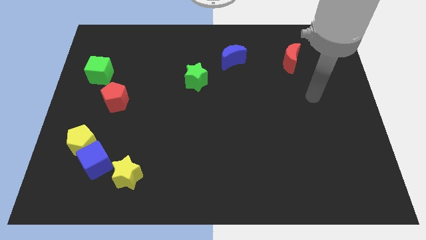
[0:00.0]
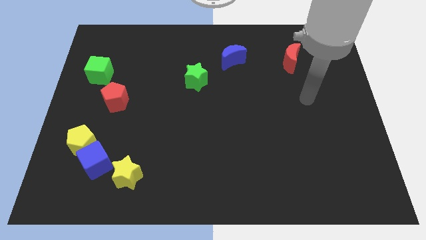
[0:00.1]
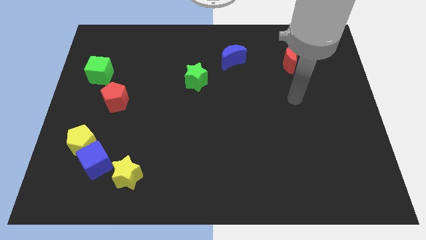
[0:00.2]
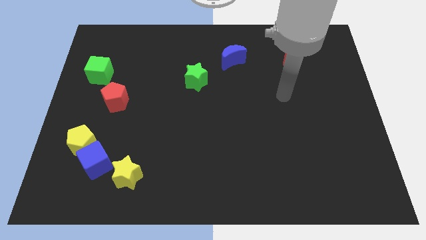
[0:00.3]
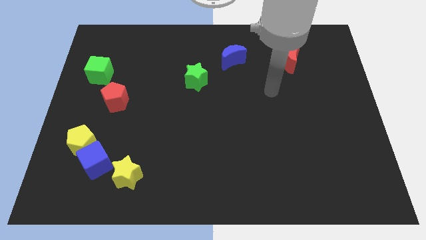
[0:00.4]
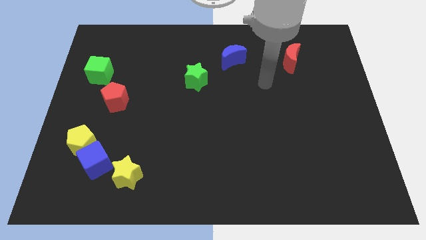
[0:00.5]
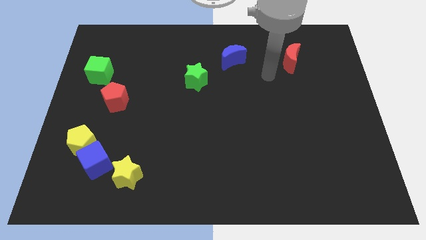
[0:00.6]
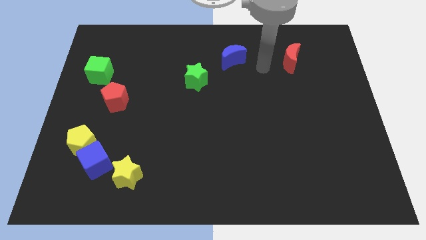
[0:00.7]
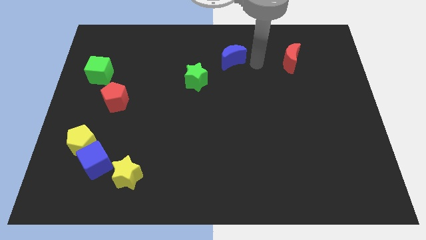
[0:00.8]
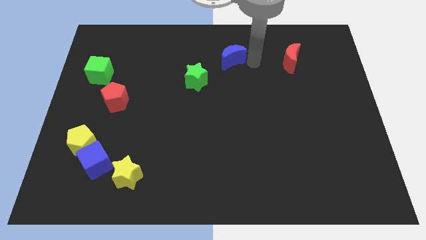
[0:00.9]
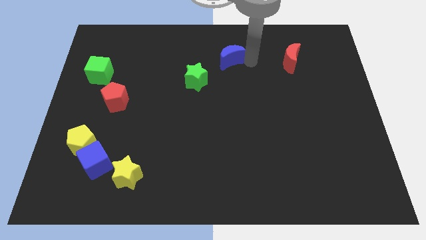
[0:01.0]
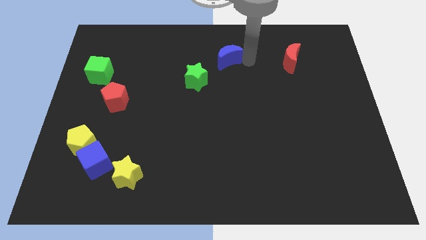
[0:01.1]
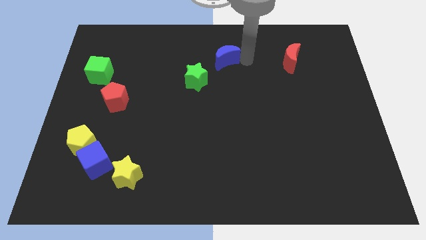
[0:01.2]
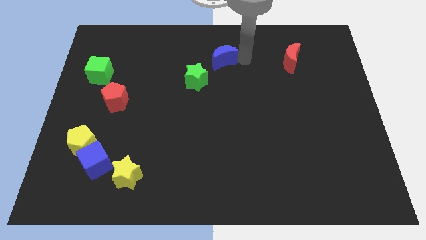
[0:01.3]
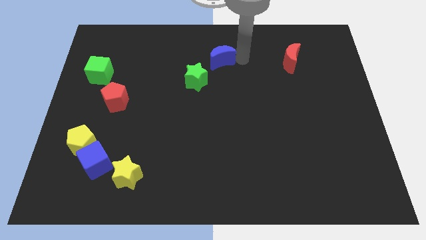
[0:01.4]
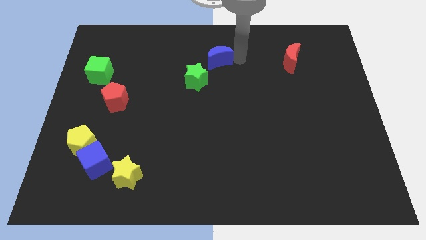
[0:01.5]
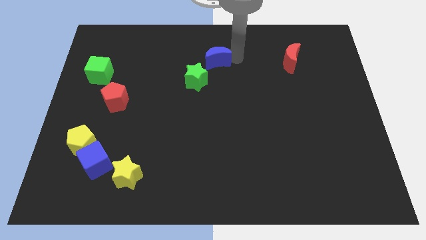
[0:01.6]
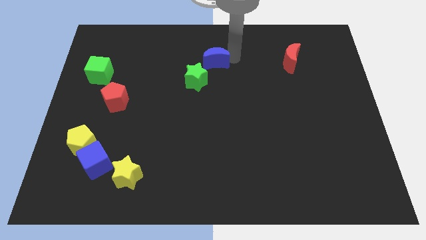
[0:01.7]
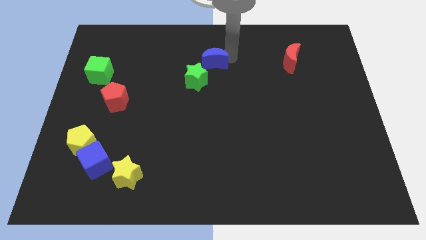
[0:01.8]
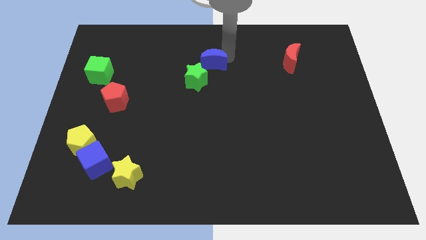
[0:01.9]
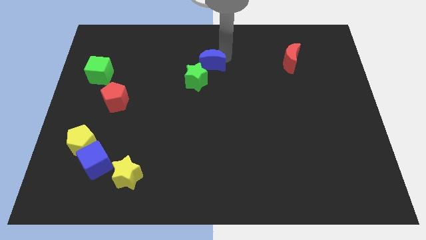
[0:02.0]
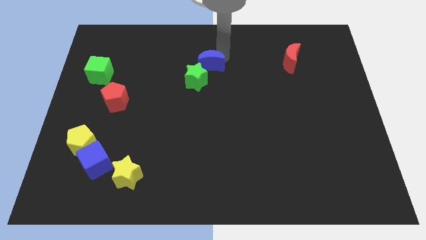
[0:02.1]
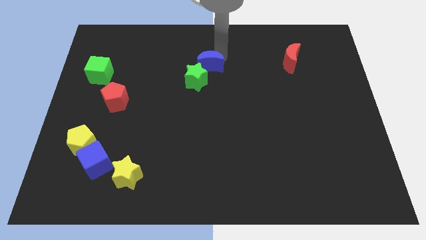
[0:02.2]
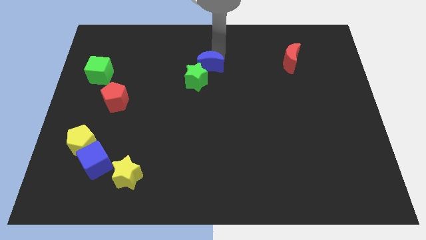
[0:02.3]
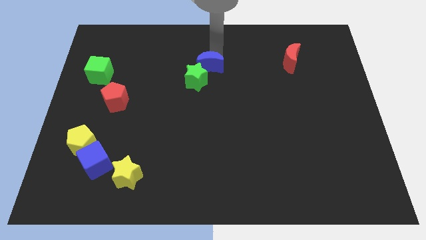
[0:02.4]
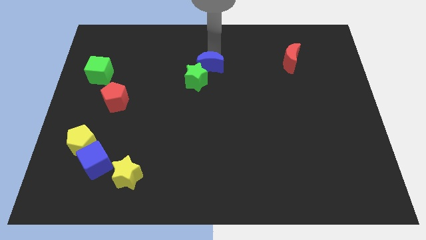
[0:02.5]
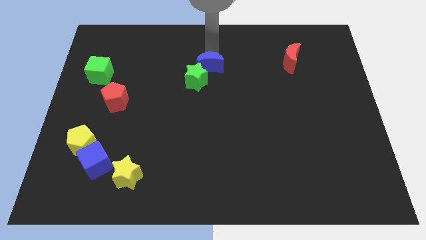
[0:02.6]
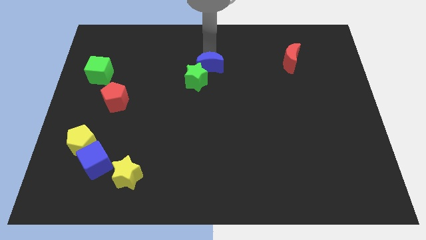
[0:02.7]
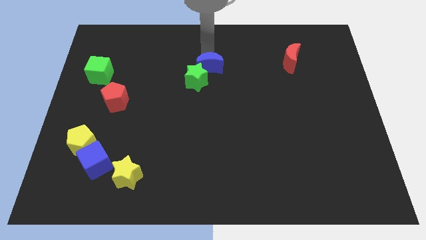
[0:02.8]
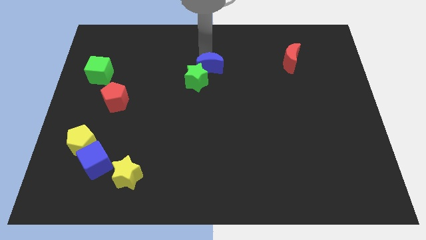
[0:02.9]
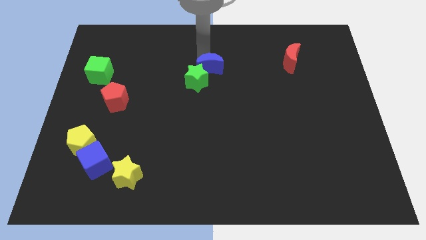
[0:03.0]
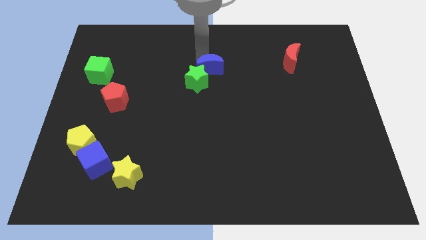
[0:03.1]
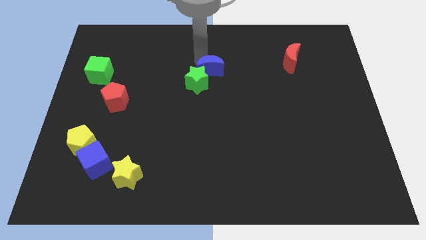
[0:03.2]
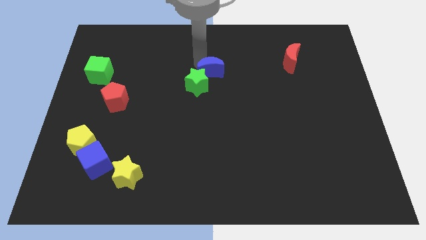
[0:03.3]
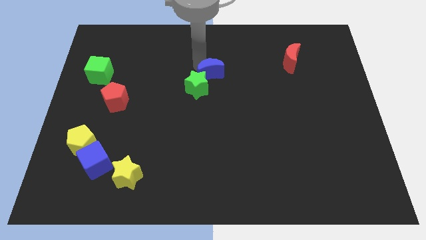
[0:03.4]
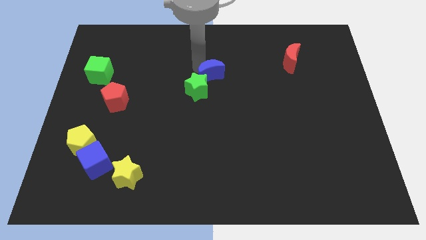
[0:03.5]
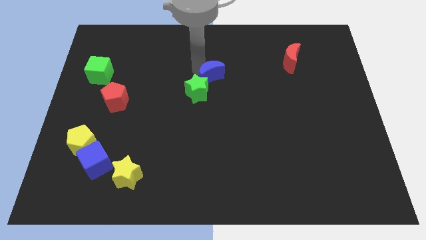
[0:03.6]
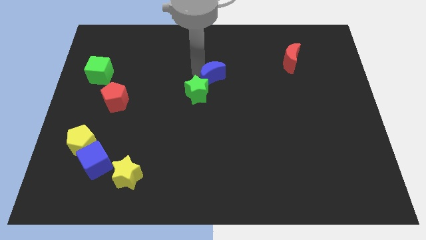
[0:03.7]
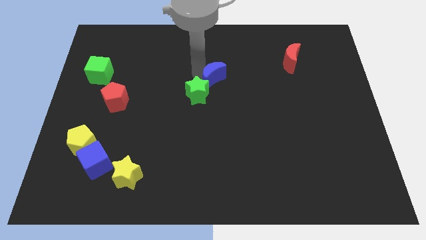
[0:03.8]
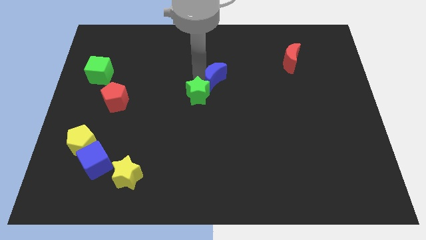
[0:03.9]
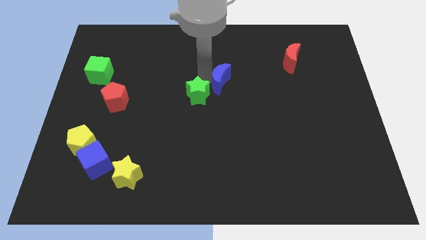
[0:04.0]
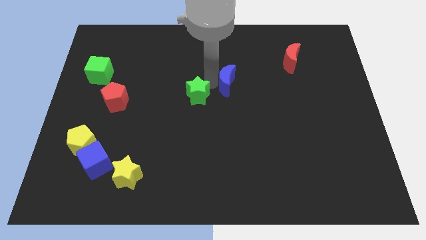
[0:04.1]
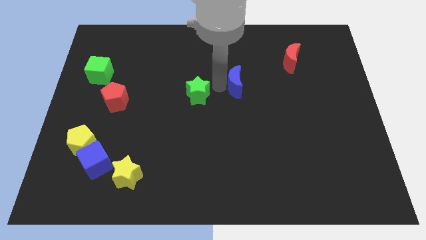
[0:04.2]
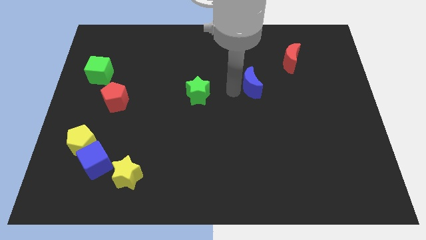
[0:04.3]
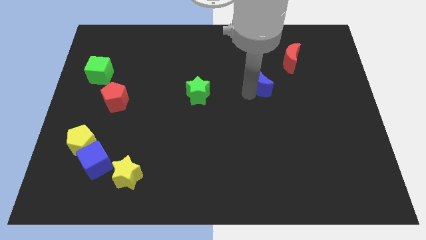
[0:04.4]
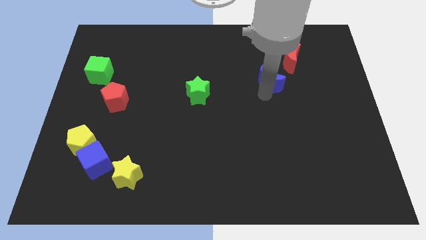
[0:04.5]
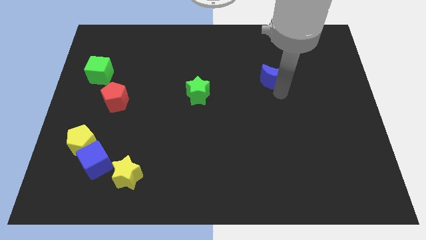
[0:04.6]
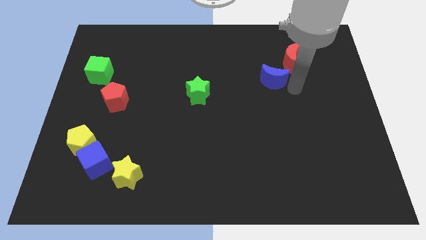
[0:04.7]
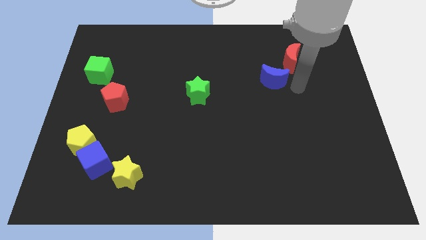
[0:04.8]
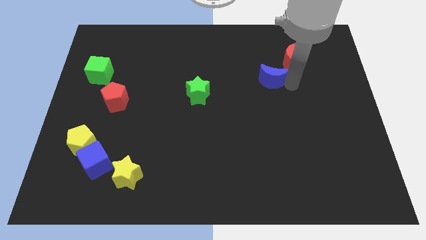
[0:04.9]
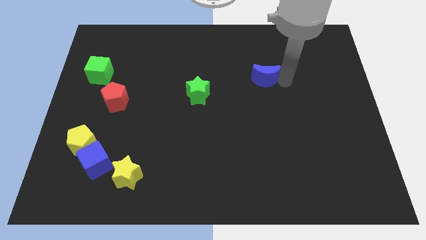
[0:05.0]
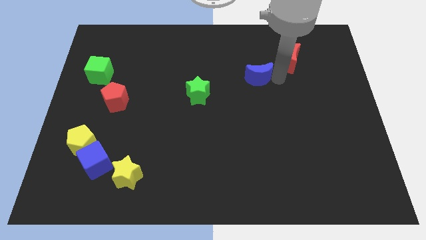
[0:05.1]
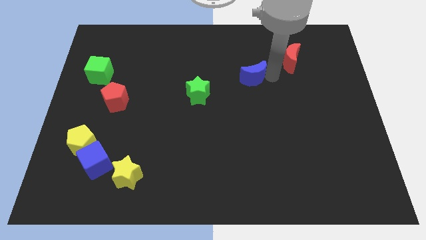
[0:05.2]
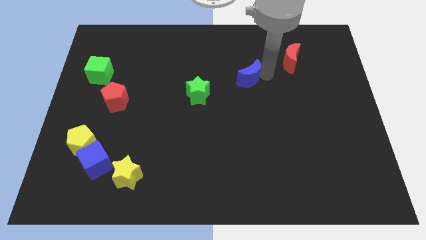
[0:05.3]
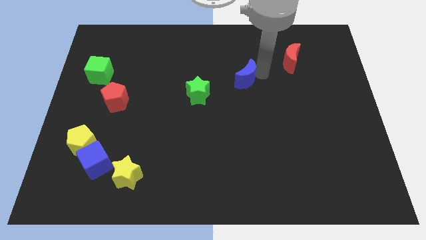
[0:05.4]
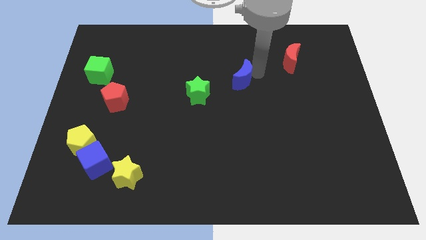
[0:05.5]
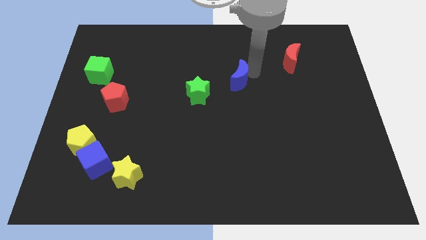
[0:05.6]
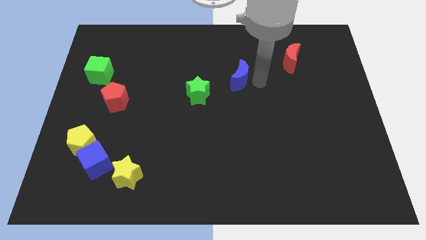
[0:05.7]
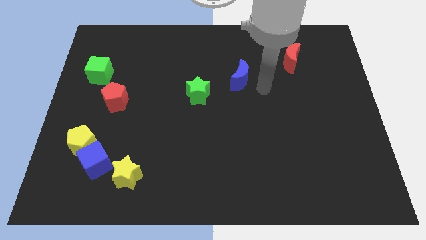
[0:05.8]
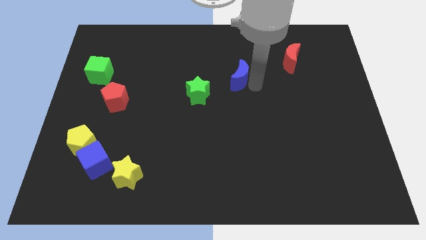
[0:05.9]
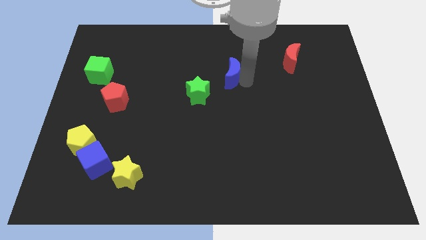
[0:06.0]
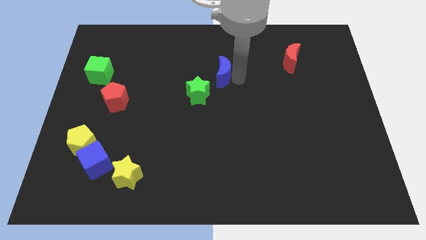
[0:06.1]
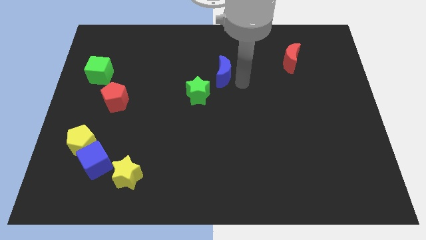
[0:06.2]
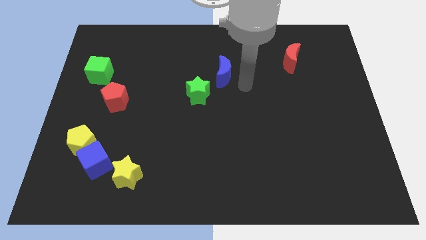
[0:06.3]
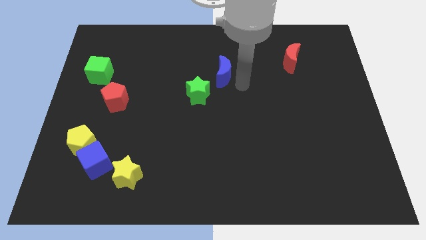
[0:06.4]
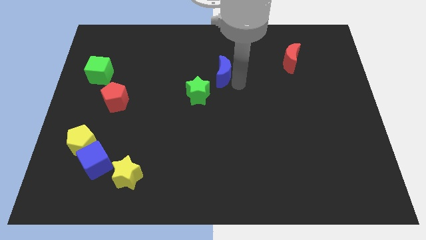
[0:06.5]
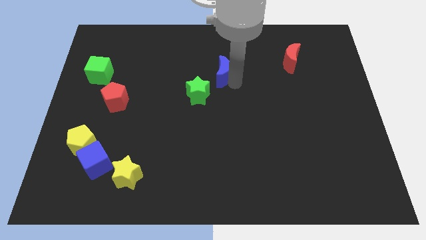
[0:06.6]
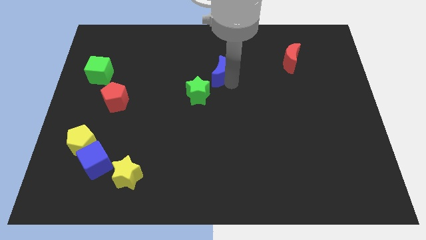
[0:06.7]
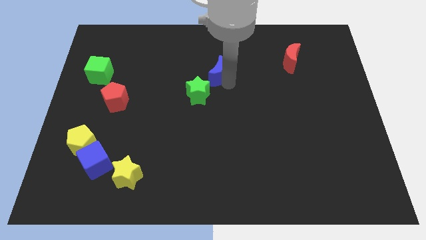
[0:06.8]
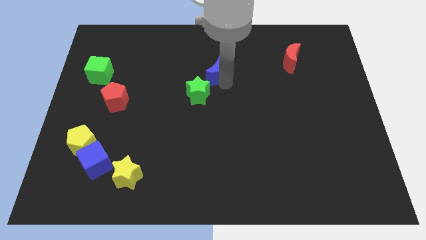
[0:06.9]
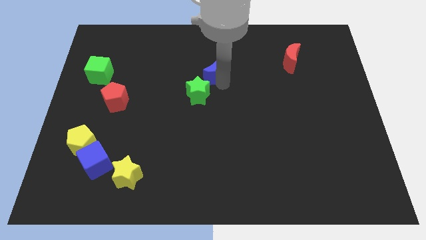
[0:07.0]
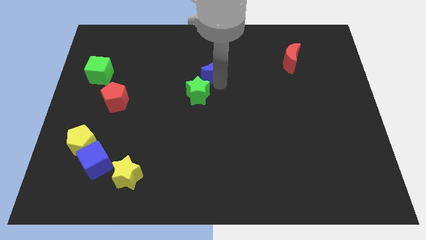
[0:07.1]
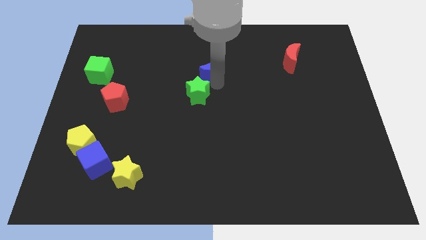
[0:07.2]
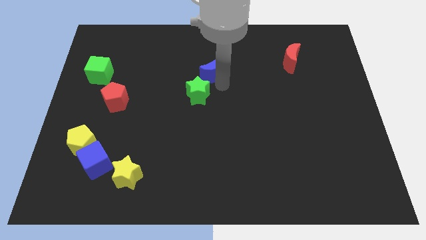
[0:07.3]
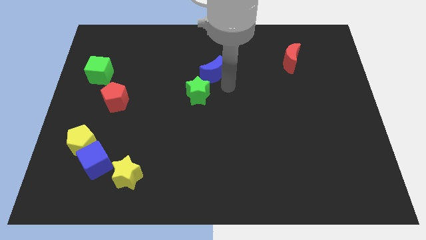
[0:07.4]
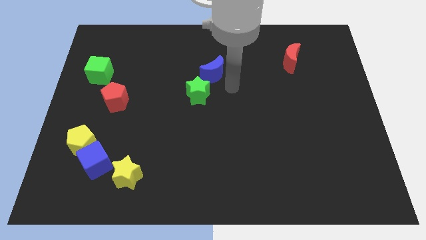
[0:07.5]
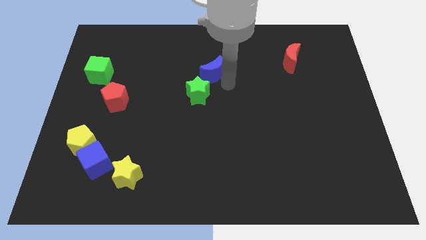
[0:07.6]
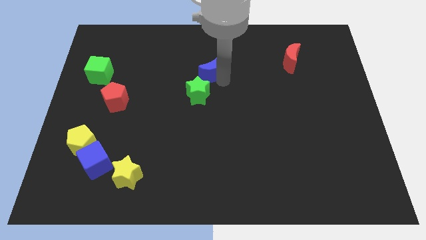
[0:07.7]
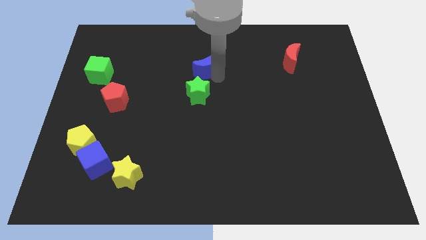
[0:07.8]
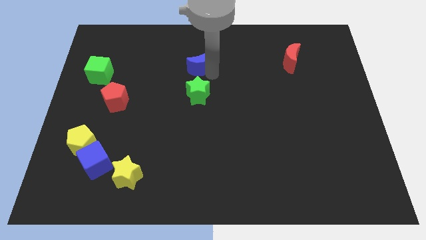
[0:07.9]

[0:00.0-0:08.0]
move the blue moon left a little
